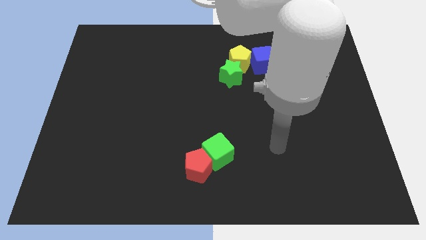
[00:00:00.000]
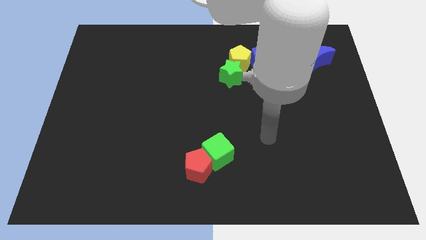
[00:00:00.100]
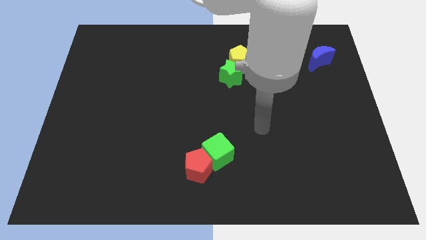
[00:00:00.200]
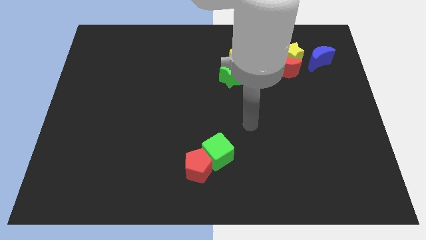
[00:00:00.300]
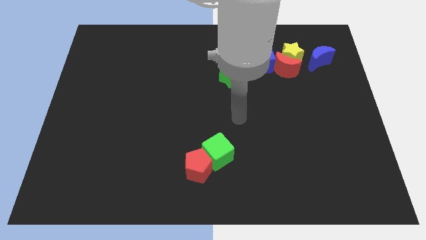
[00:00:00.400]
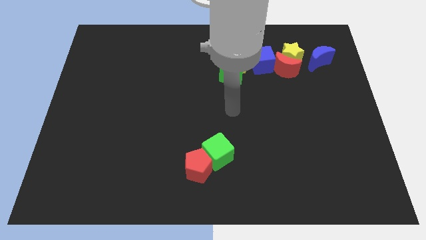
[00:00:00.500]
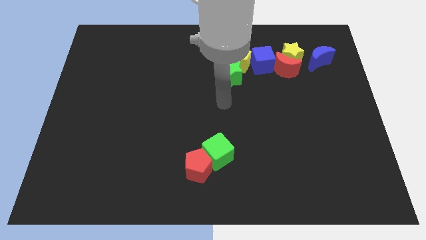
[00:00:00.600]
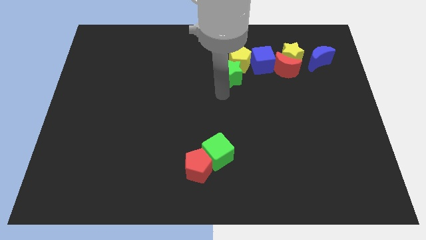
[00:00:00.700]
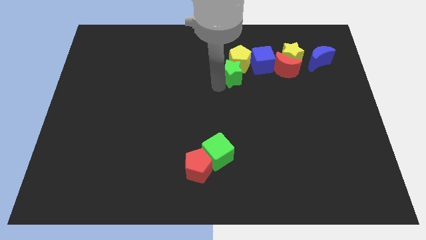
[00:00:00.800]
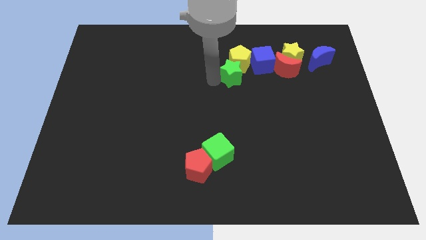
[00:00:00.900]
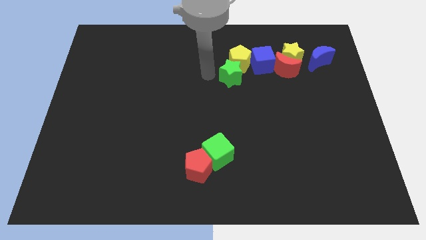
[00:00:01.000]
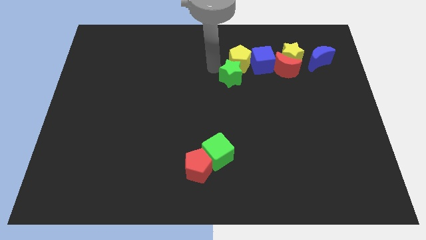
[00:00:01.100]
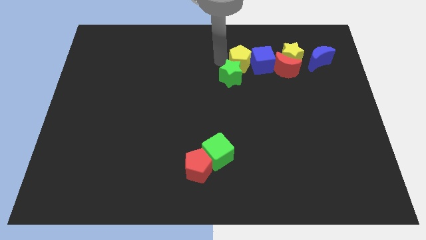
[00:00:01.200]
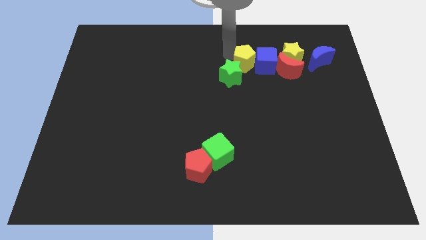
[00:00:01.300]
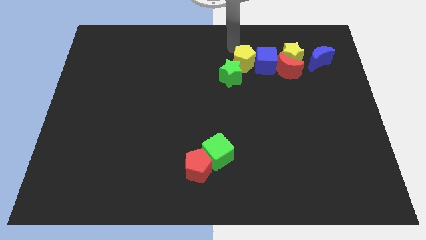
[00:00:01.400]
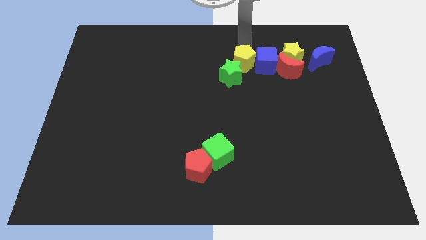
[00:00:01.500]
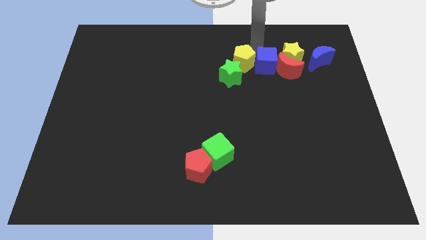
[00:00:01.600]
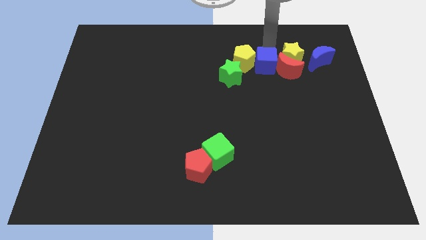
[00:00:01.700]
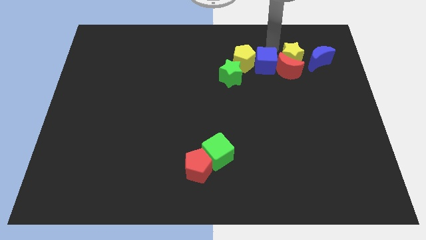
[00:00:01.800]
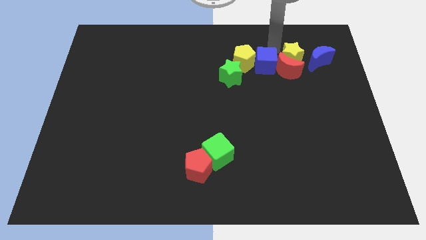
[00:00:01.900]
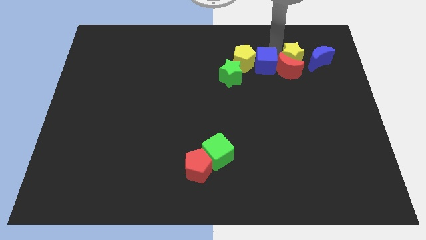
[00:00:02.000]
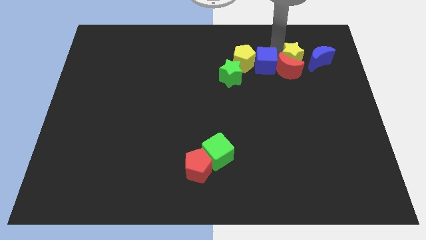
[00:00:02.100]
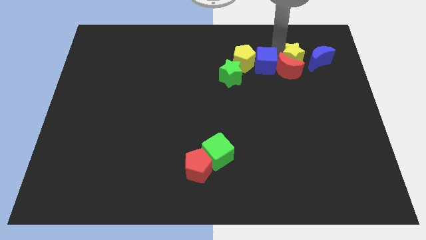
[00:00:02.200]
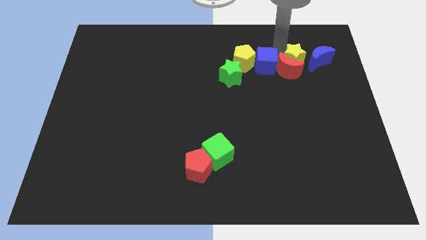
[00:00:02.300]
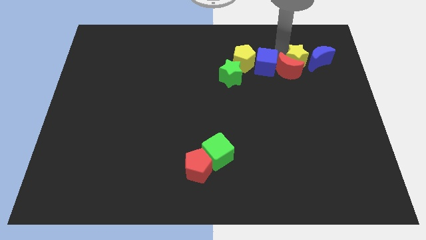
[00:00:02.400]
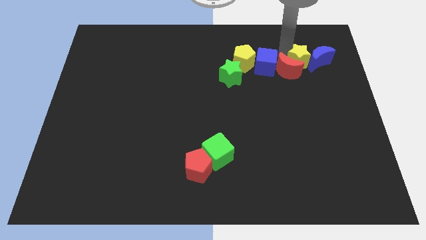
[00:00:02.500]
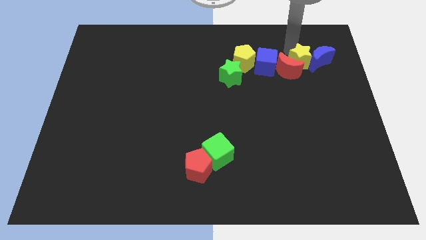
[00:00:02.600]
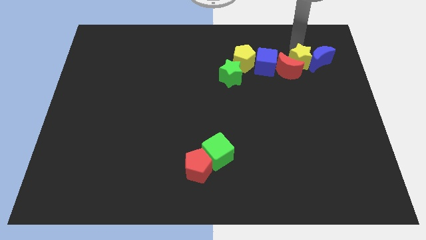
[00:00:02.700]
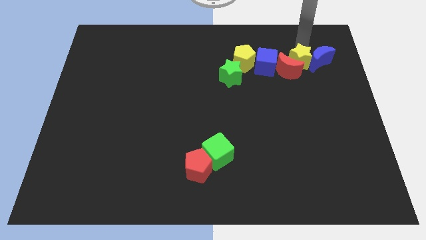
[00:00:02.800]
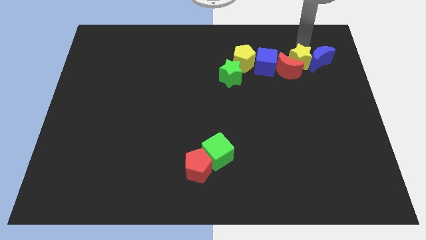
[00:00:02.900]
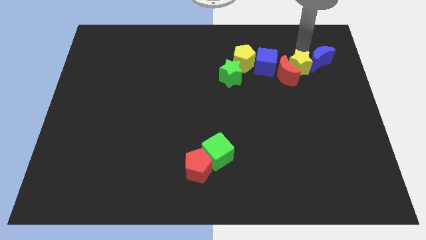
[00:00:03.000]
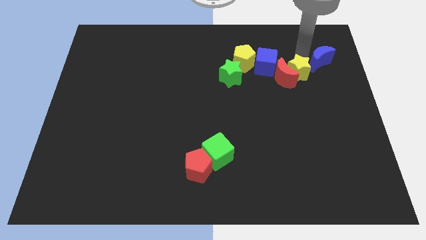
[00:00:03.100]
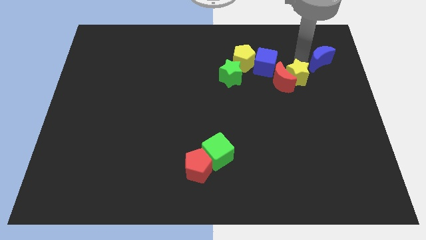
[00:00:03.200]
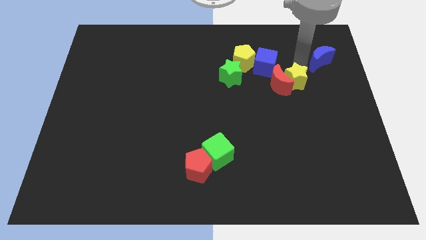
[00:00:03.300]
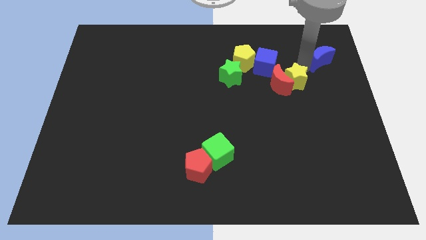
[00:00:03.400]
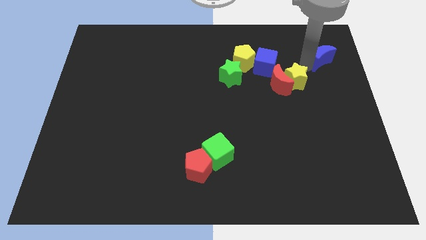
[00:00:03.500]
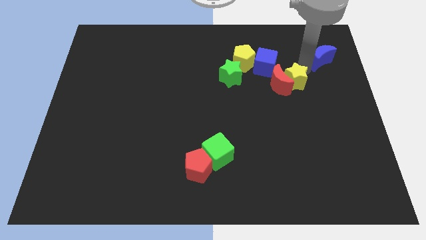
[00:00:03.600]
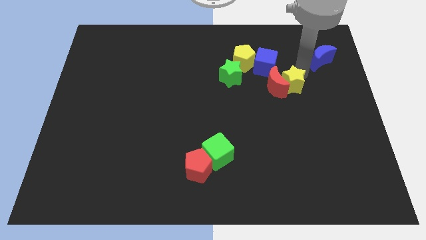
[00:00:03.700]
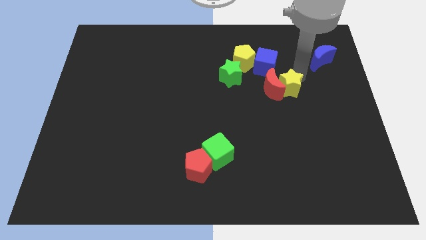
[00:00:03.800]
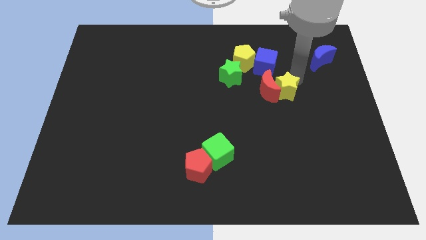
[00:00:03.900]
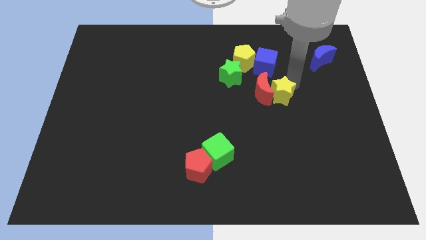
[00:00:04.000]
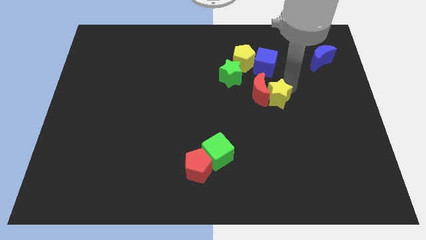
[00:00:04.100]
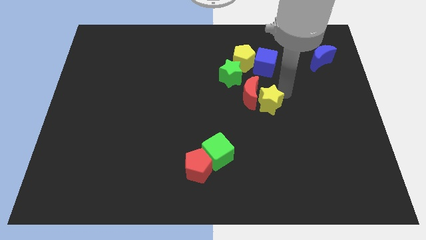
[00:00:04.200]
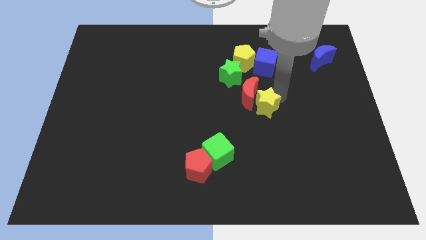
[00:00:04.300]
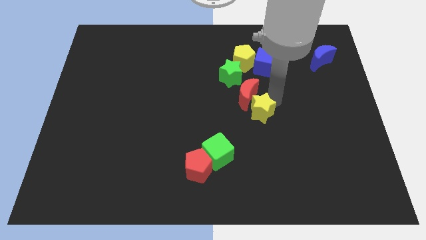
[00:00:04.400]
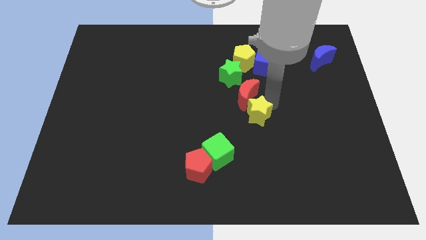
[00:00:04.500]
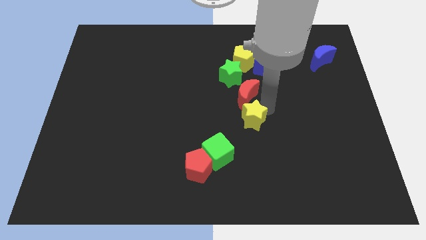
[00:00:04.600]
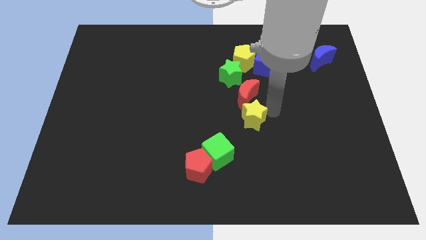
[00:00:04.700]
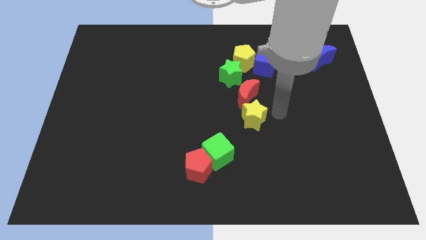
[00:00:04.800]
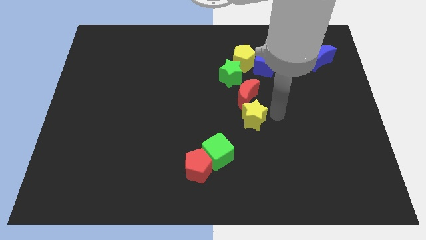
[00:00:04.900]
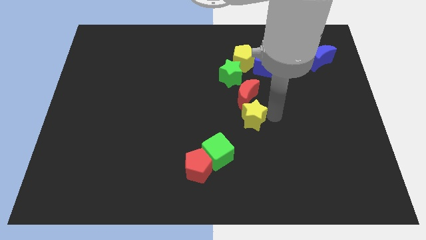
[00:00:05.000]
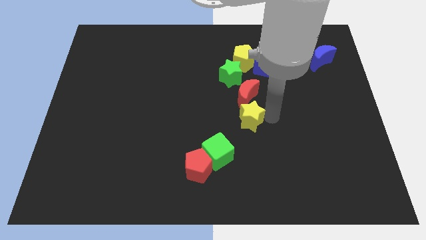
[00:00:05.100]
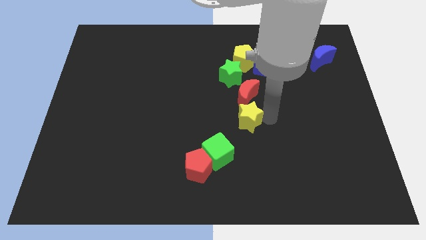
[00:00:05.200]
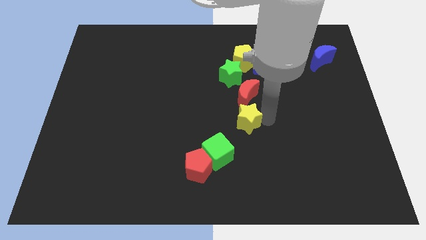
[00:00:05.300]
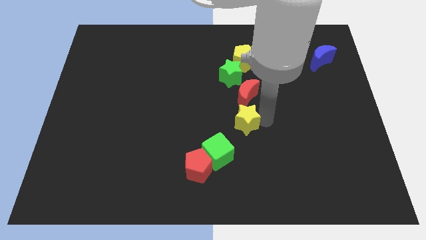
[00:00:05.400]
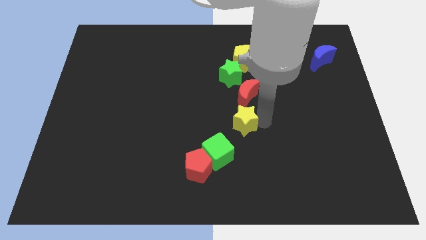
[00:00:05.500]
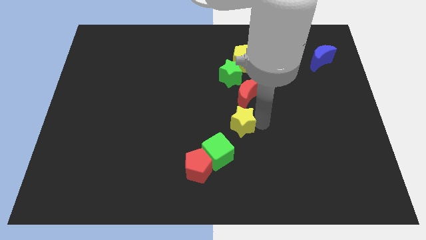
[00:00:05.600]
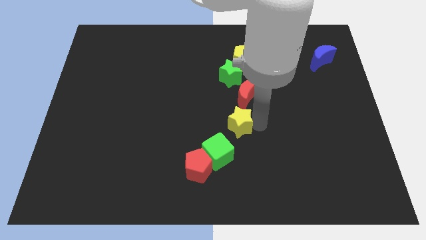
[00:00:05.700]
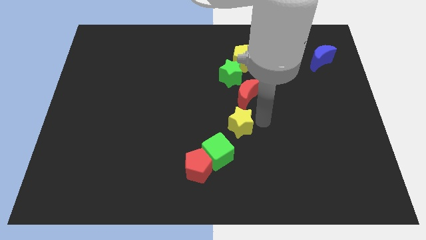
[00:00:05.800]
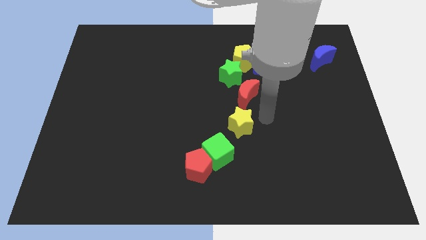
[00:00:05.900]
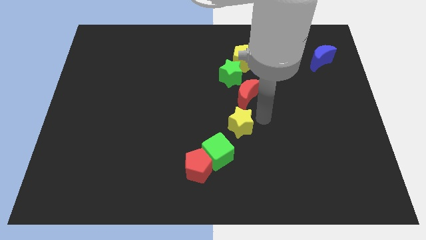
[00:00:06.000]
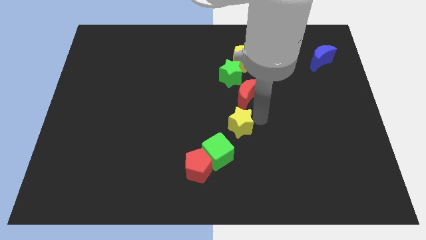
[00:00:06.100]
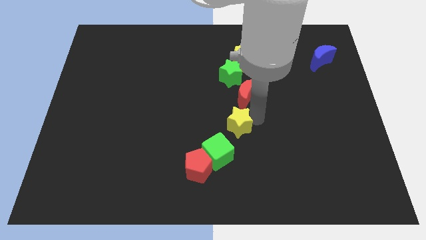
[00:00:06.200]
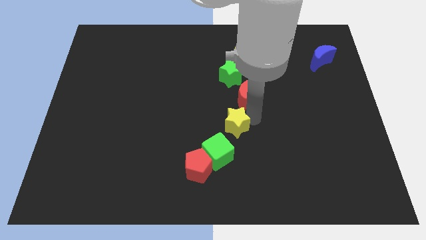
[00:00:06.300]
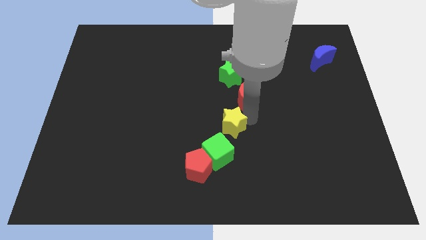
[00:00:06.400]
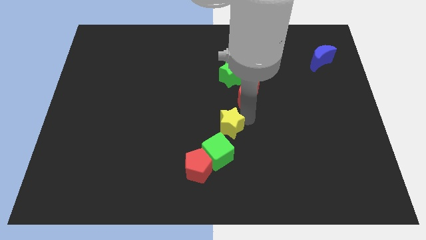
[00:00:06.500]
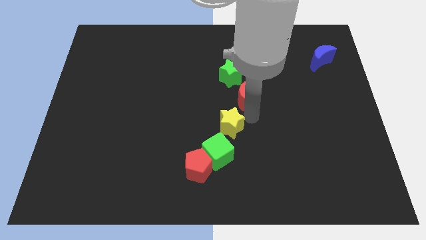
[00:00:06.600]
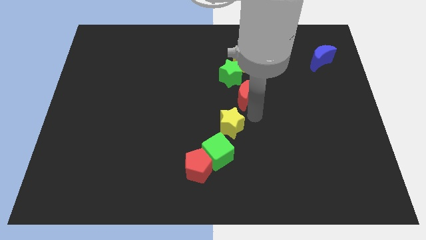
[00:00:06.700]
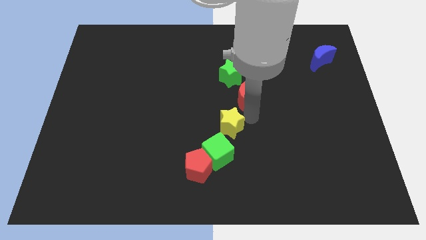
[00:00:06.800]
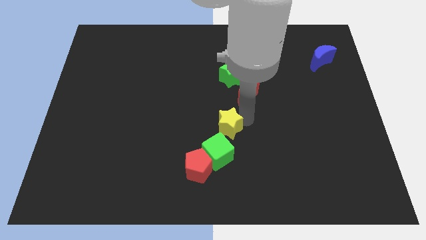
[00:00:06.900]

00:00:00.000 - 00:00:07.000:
put the yellow star to the top right side of the red pentagon

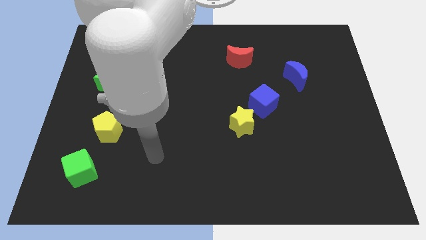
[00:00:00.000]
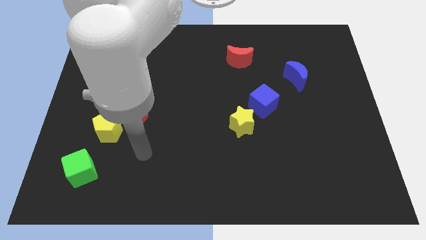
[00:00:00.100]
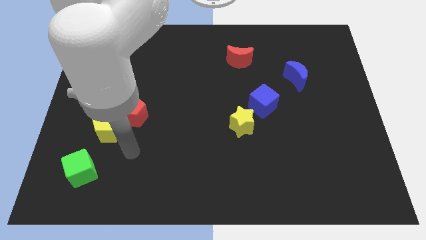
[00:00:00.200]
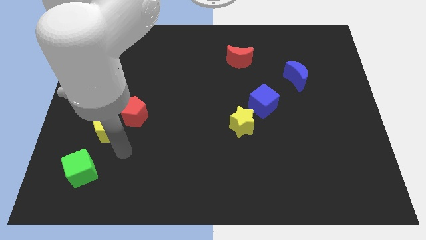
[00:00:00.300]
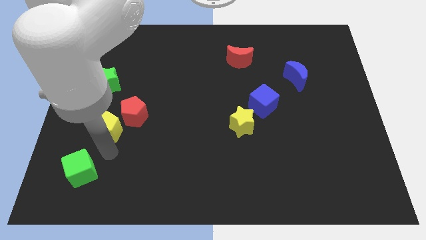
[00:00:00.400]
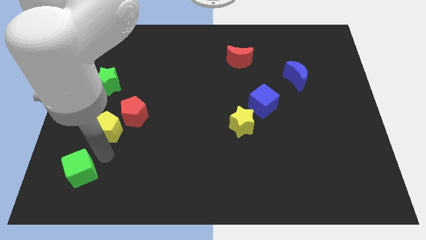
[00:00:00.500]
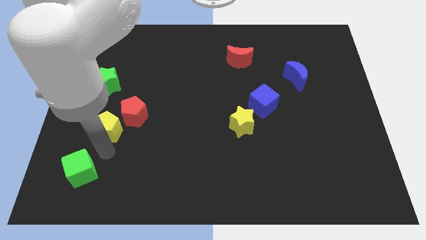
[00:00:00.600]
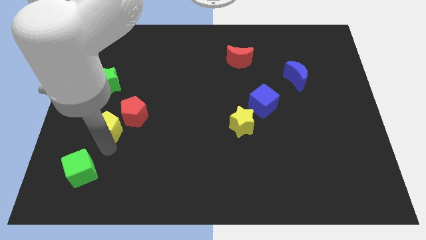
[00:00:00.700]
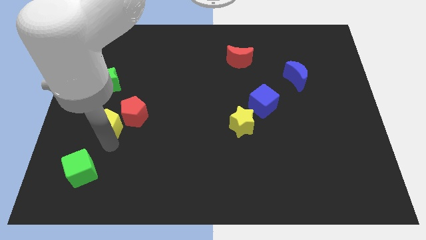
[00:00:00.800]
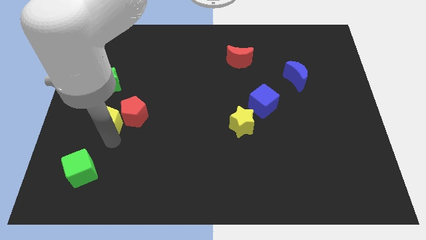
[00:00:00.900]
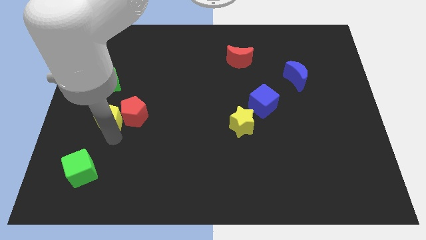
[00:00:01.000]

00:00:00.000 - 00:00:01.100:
move the yellow pentagon to the top left side of the red pentagon

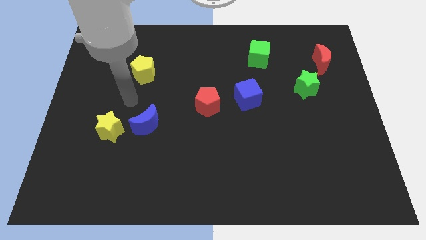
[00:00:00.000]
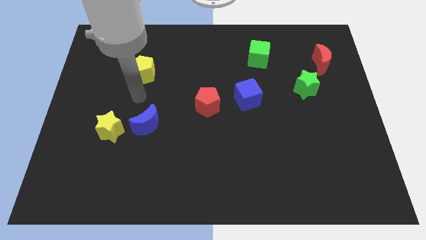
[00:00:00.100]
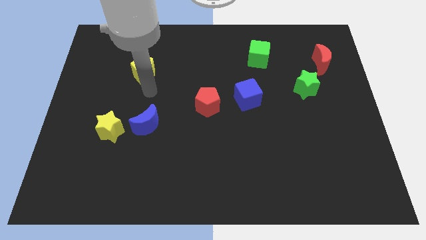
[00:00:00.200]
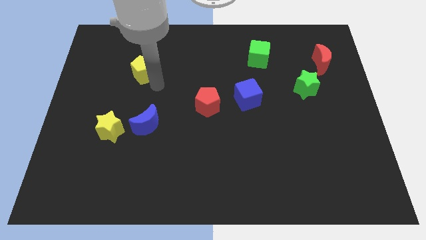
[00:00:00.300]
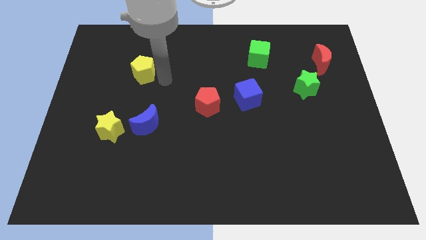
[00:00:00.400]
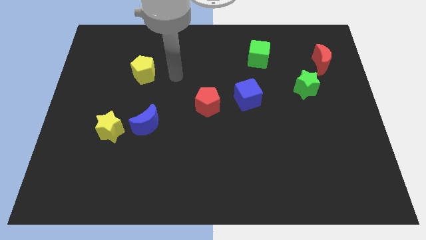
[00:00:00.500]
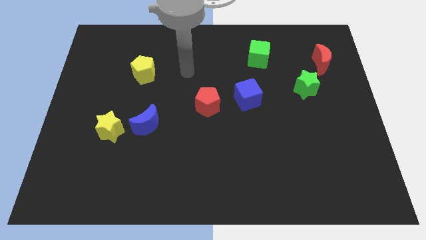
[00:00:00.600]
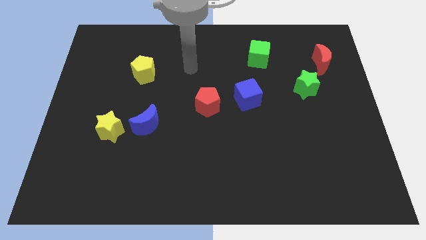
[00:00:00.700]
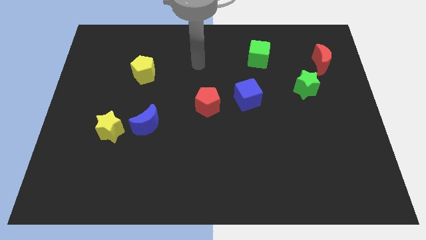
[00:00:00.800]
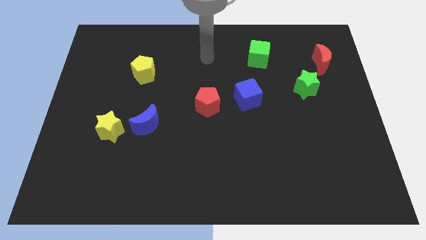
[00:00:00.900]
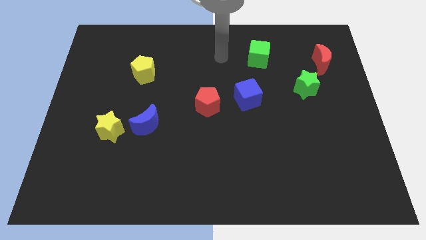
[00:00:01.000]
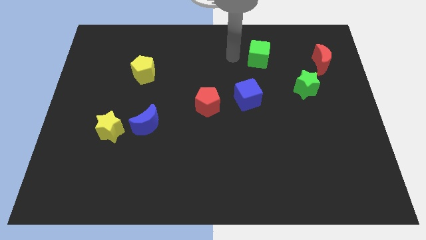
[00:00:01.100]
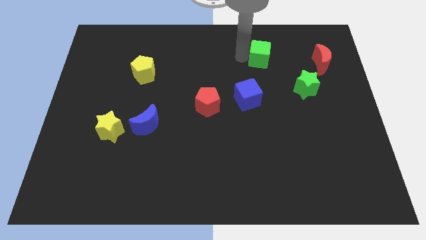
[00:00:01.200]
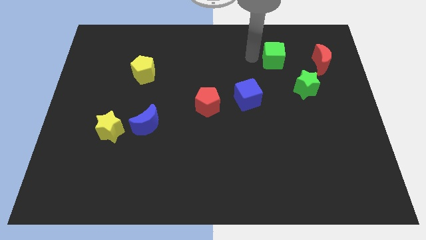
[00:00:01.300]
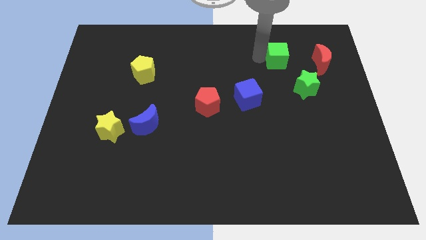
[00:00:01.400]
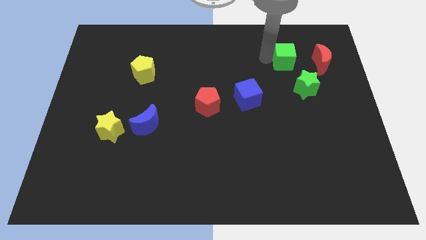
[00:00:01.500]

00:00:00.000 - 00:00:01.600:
slide the green cube to the top side of the green star
